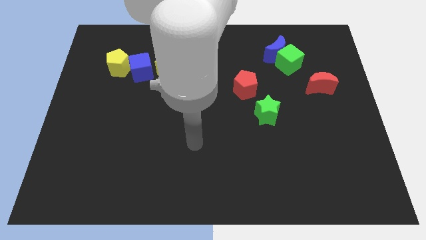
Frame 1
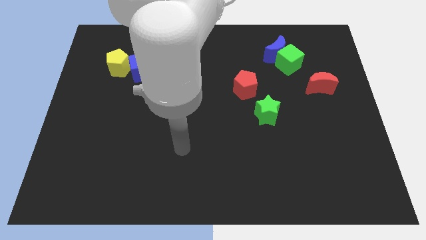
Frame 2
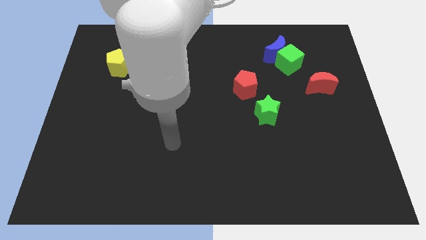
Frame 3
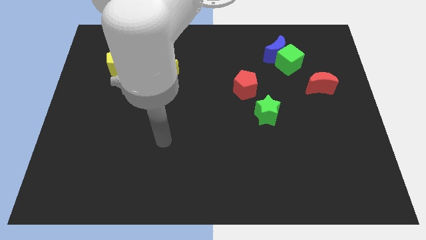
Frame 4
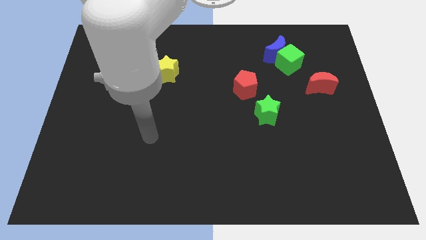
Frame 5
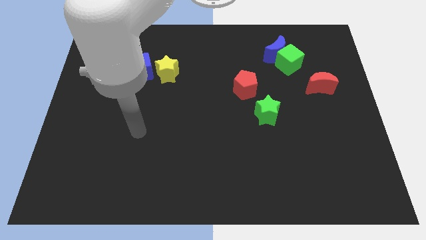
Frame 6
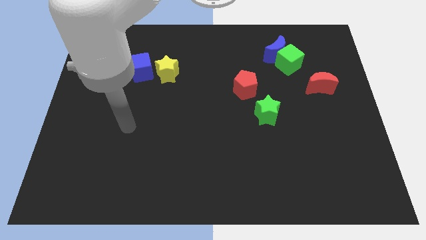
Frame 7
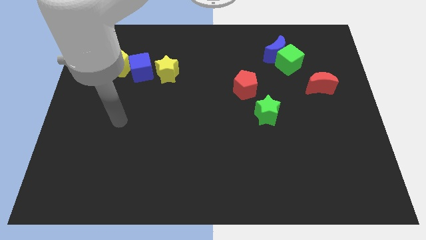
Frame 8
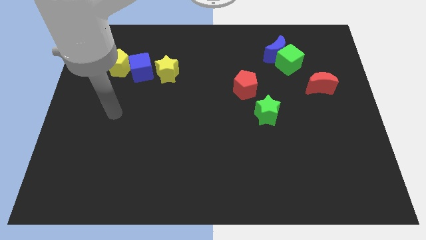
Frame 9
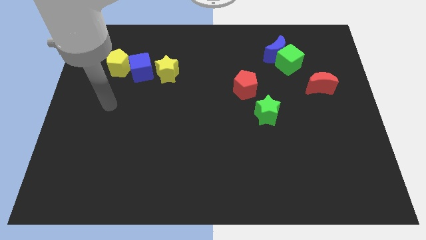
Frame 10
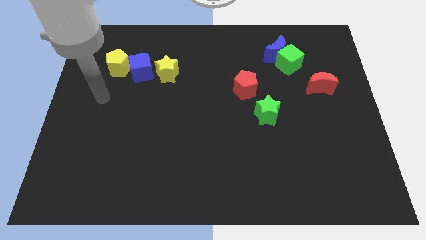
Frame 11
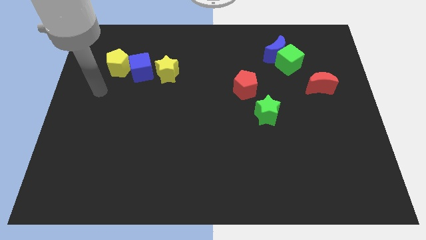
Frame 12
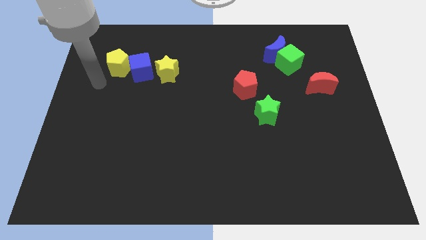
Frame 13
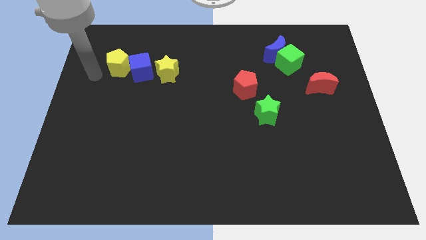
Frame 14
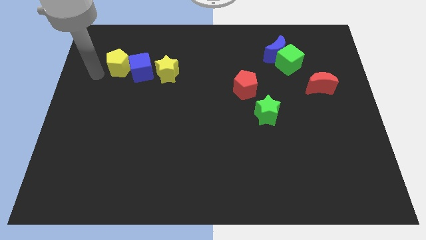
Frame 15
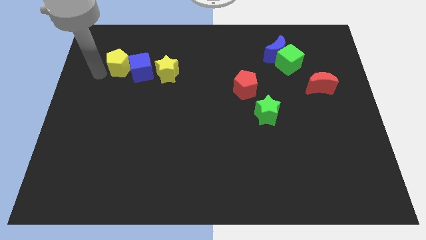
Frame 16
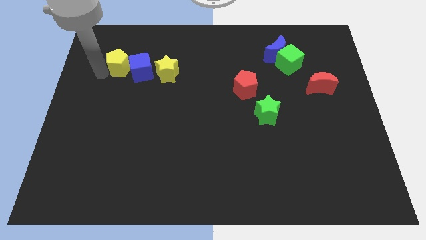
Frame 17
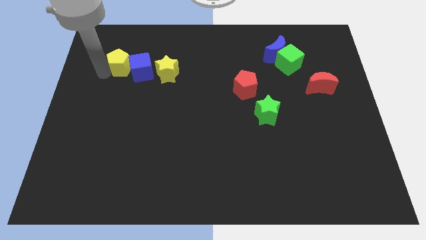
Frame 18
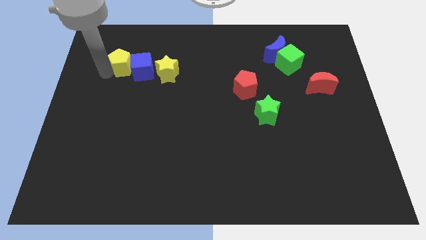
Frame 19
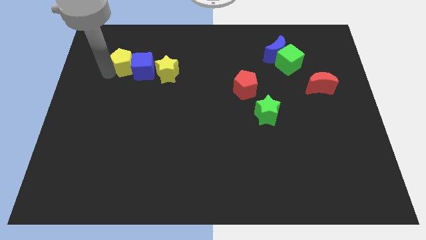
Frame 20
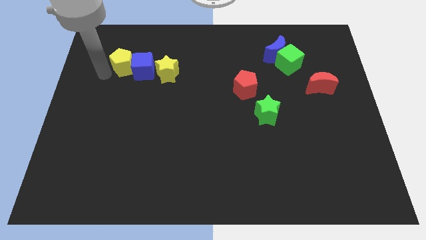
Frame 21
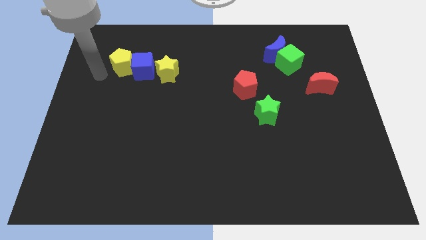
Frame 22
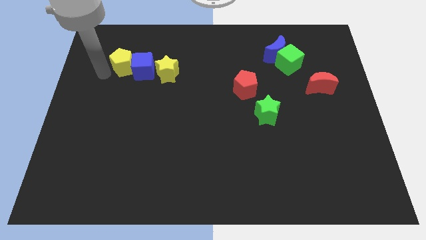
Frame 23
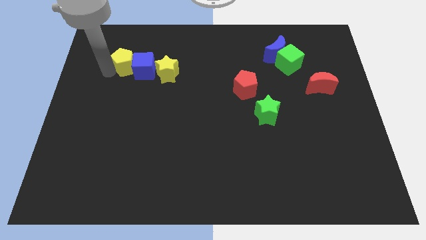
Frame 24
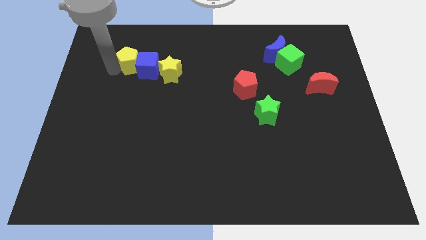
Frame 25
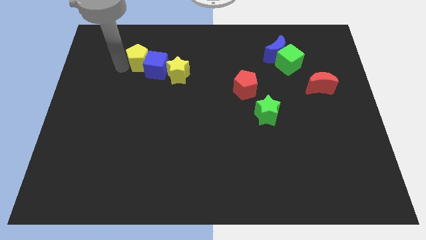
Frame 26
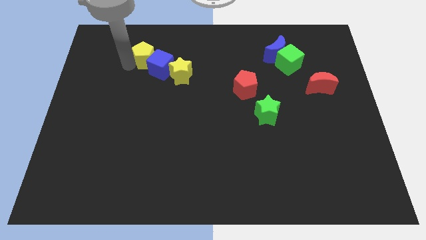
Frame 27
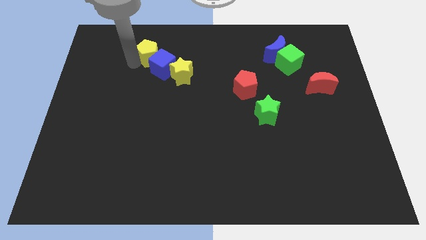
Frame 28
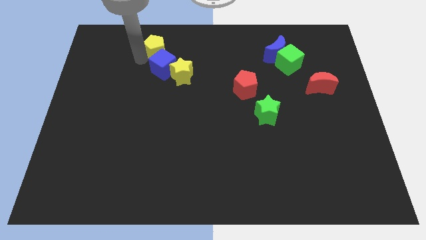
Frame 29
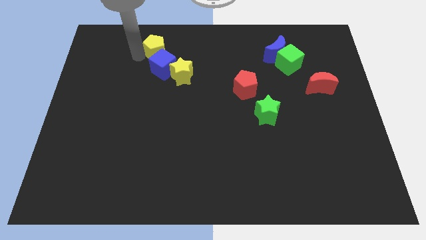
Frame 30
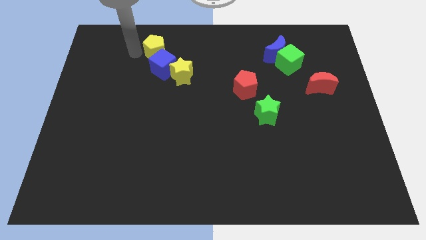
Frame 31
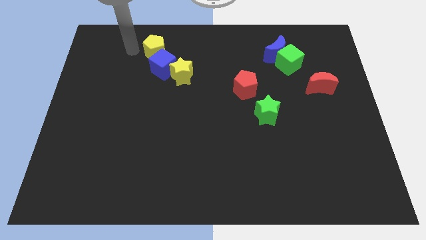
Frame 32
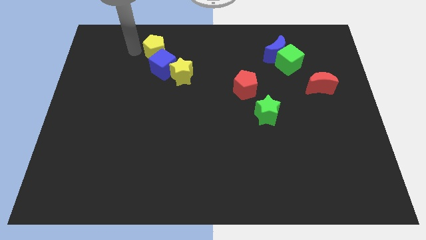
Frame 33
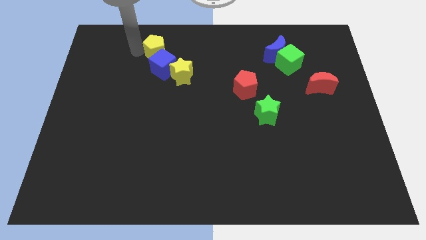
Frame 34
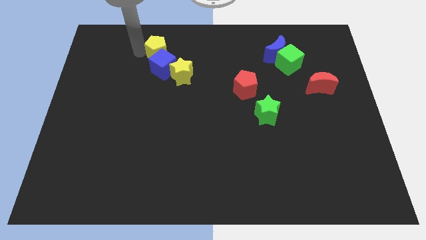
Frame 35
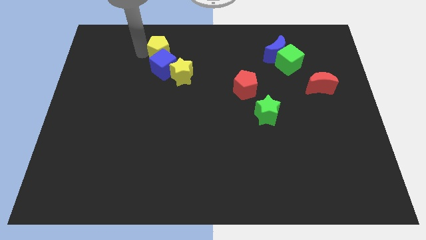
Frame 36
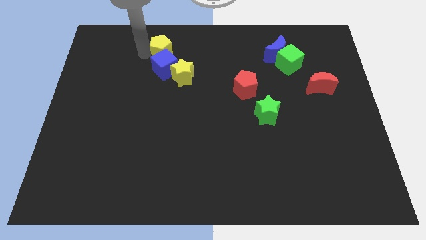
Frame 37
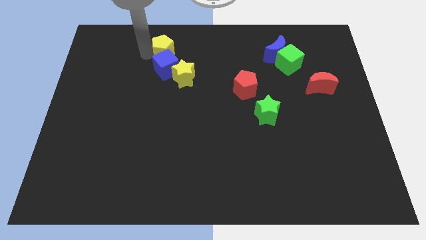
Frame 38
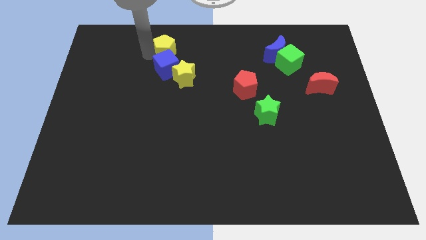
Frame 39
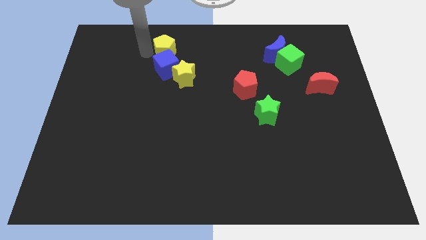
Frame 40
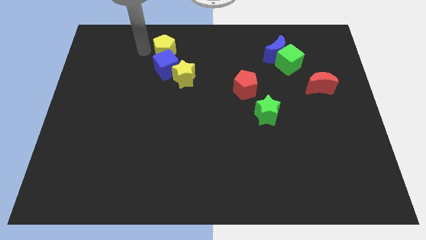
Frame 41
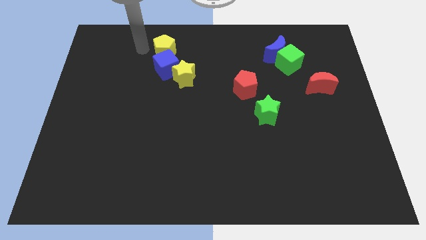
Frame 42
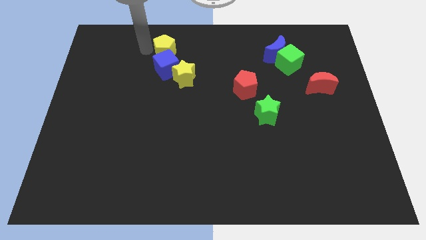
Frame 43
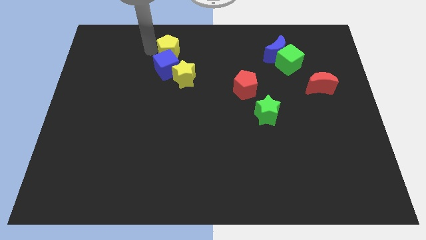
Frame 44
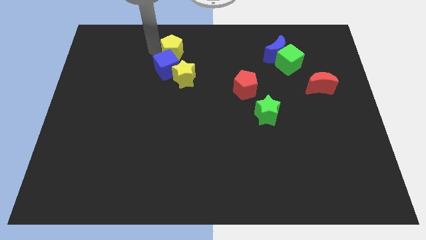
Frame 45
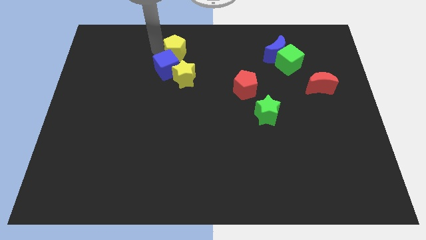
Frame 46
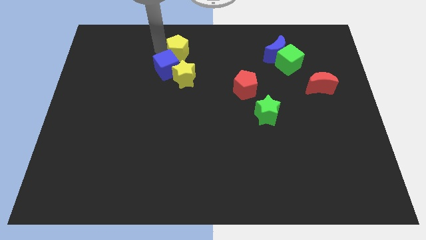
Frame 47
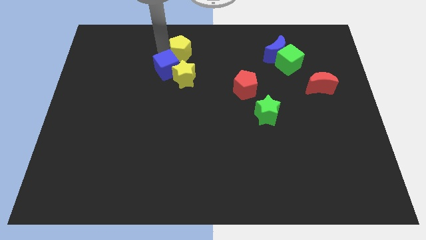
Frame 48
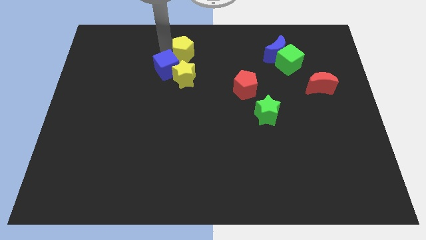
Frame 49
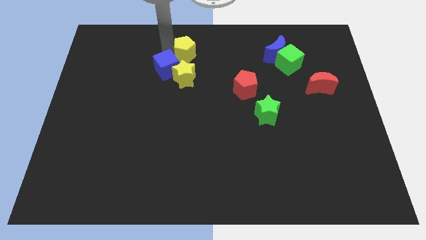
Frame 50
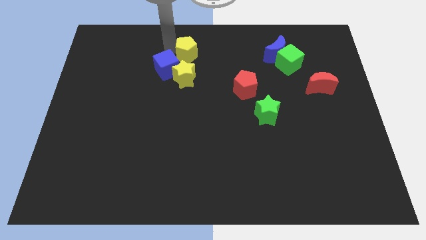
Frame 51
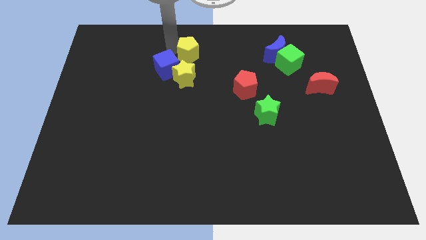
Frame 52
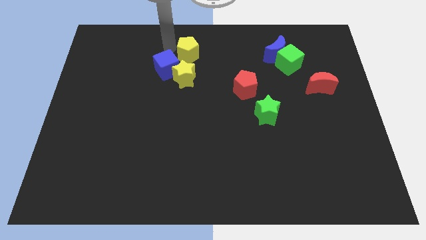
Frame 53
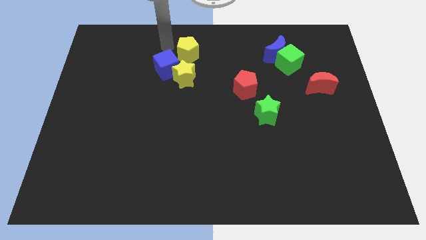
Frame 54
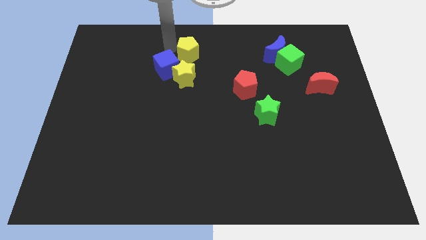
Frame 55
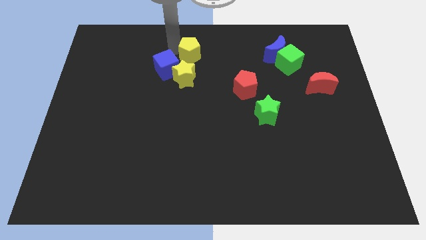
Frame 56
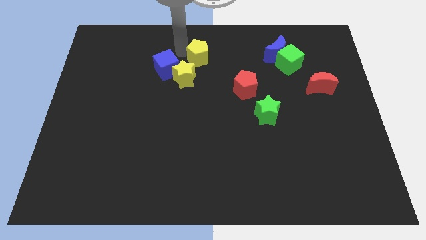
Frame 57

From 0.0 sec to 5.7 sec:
move the yellow pentagon right

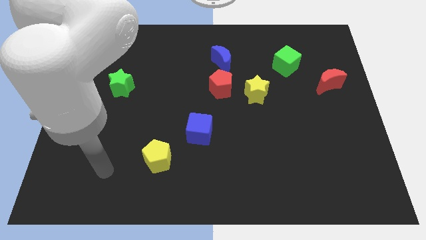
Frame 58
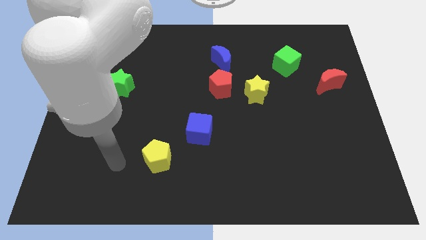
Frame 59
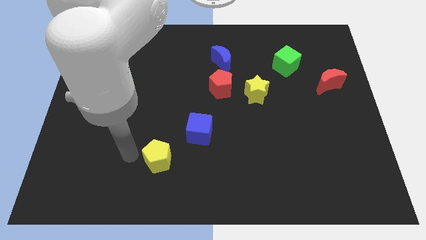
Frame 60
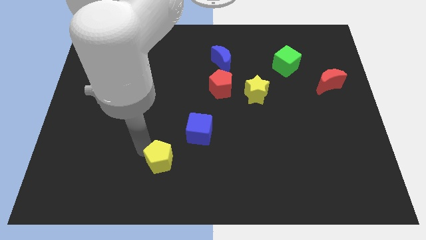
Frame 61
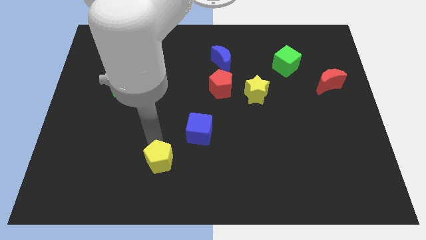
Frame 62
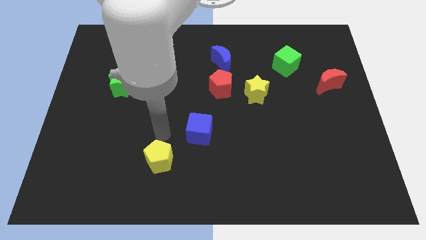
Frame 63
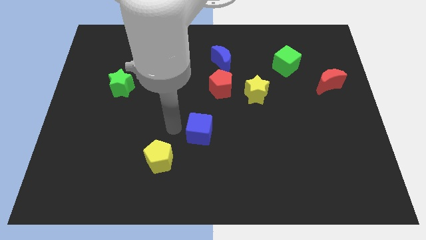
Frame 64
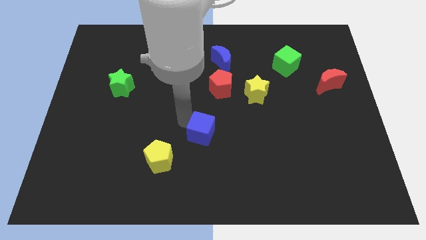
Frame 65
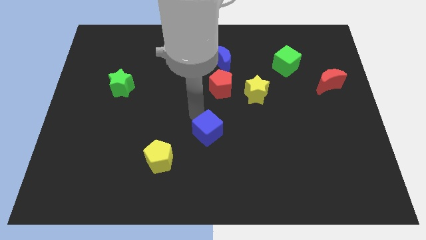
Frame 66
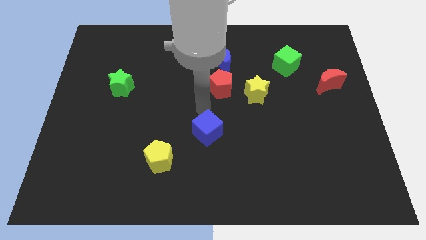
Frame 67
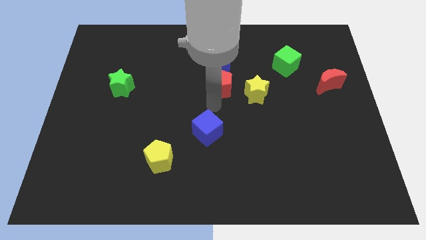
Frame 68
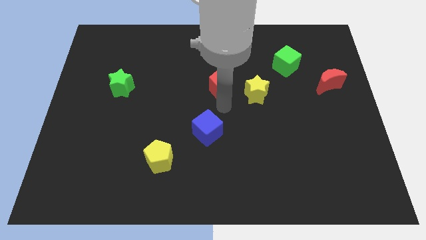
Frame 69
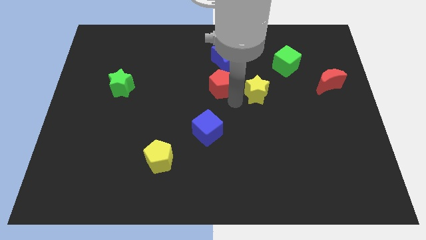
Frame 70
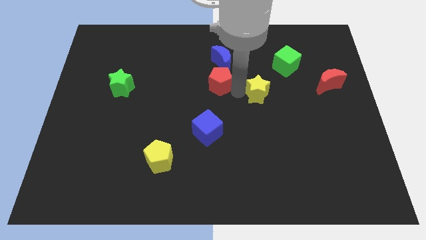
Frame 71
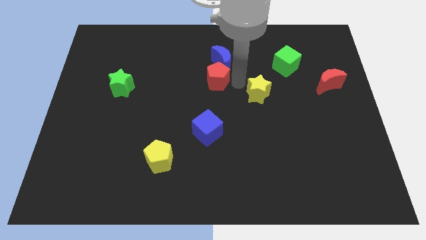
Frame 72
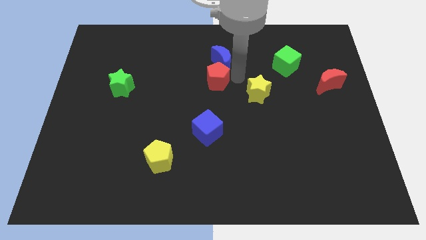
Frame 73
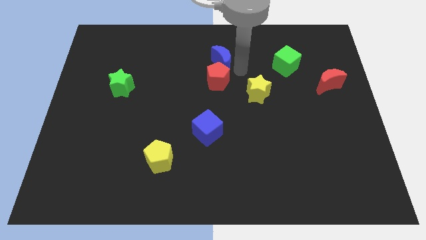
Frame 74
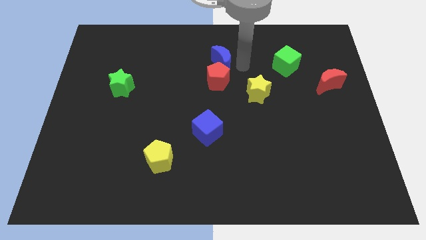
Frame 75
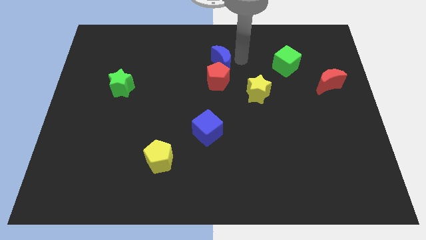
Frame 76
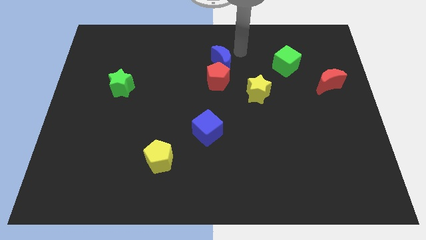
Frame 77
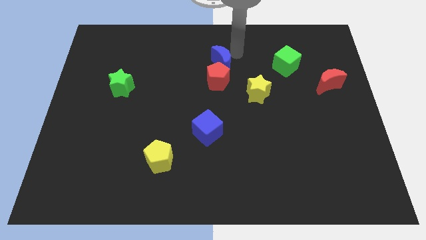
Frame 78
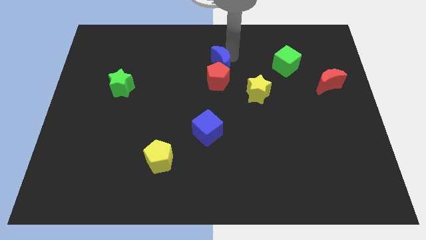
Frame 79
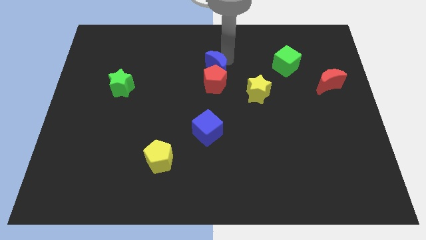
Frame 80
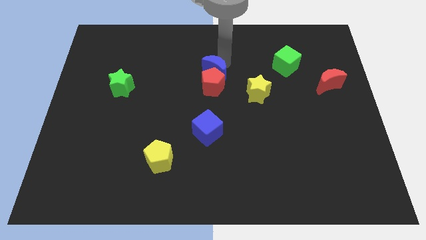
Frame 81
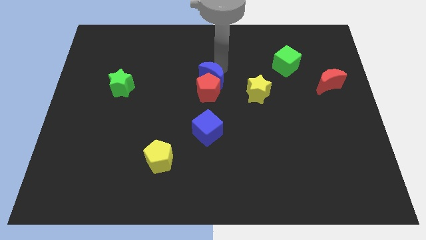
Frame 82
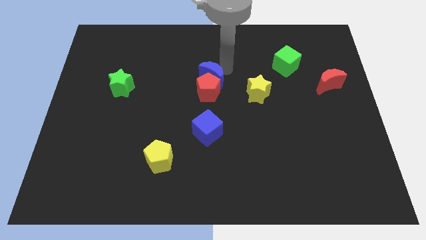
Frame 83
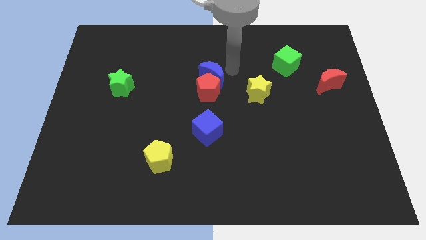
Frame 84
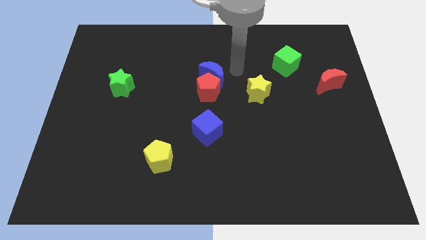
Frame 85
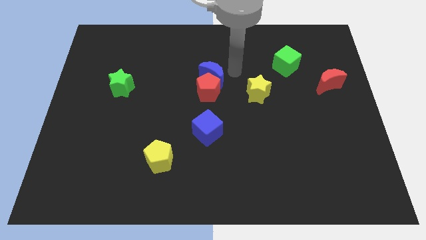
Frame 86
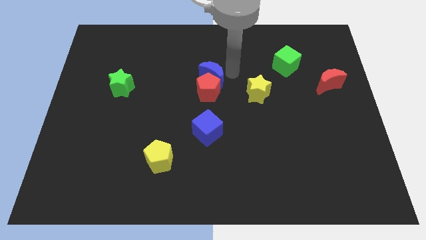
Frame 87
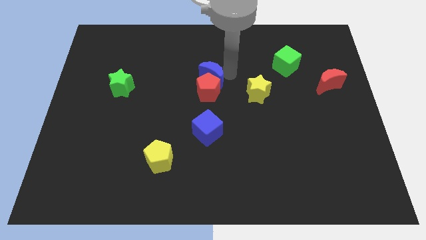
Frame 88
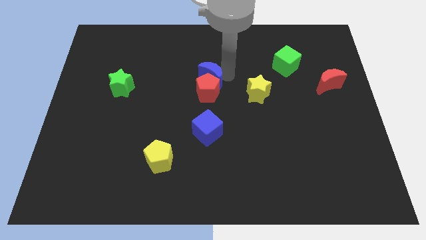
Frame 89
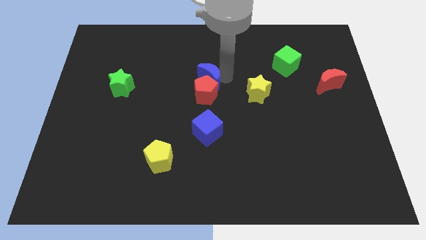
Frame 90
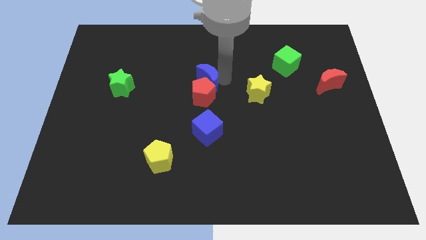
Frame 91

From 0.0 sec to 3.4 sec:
move the blue moon downwards and then to the left a bit
